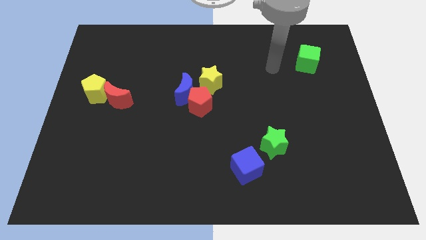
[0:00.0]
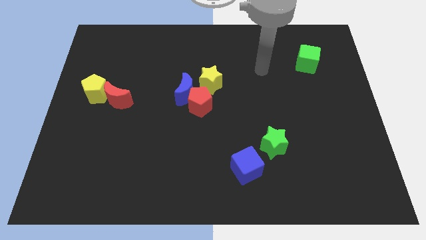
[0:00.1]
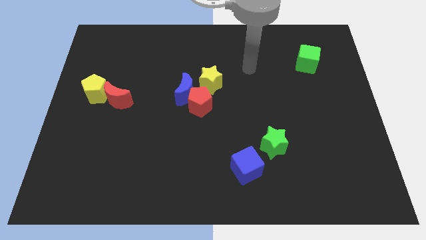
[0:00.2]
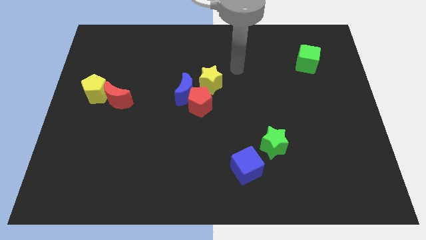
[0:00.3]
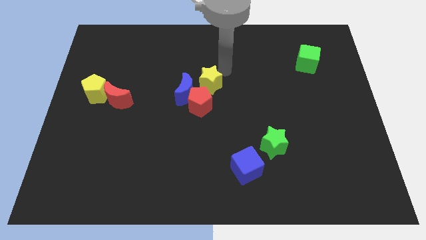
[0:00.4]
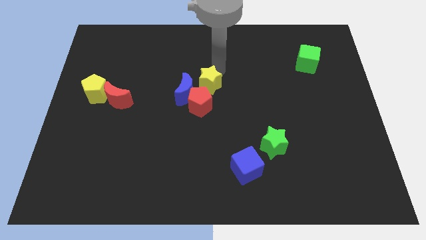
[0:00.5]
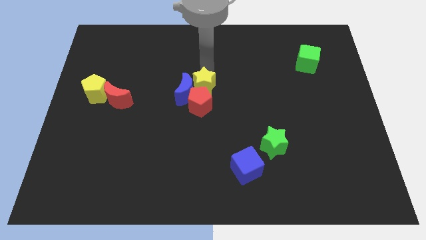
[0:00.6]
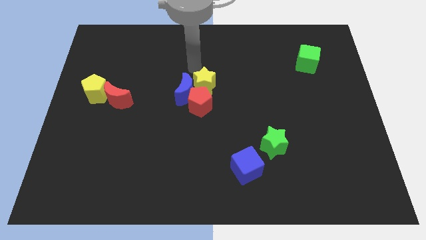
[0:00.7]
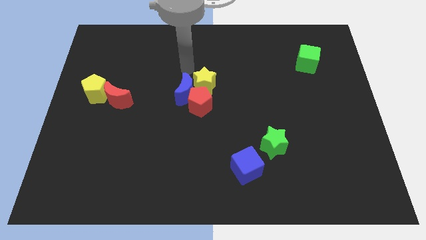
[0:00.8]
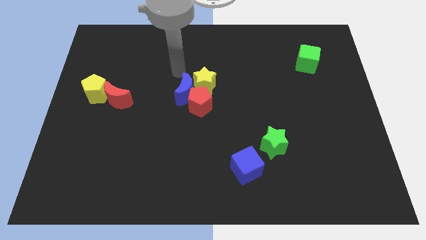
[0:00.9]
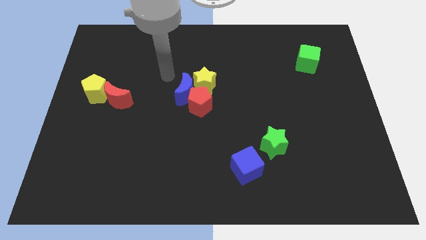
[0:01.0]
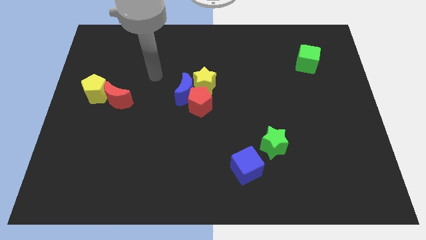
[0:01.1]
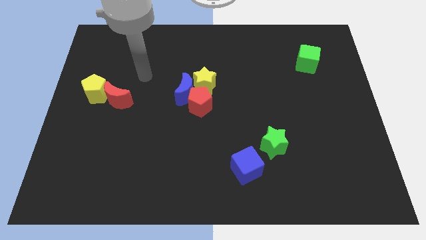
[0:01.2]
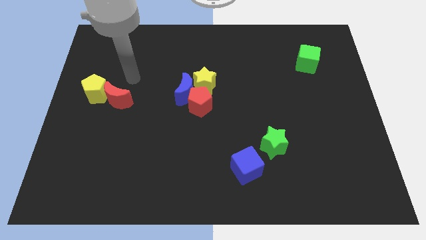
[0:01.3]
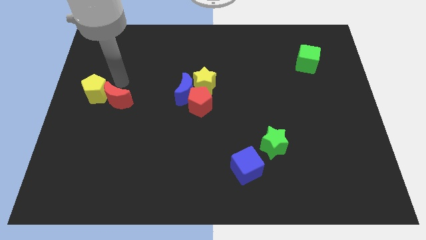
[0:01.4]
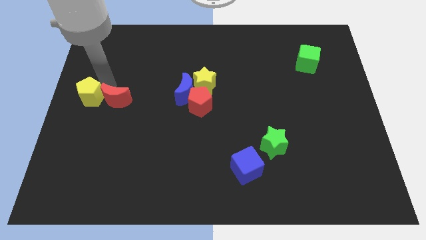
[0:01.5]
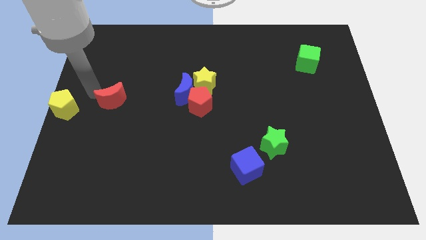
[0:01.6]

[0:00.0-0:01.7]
move the red moon away from the yellow pentagon

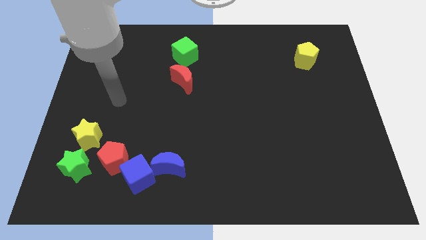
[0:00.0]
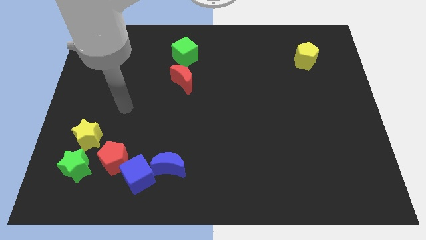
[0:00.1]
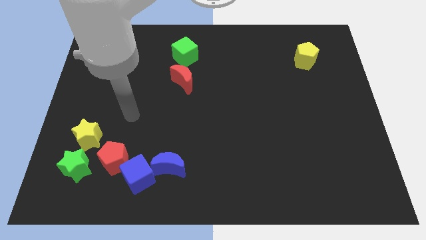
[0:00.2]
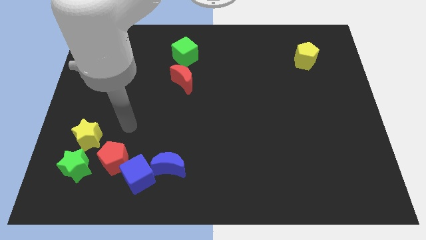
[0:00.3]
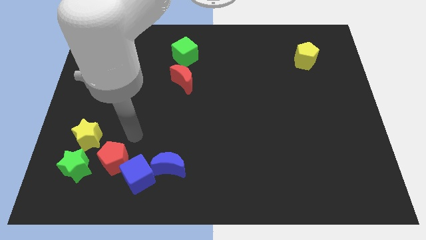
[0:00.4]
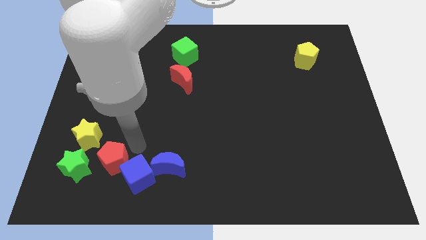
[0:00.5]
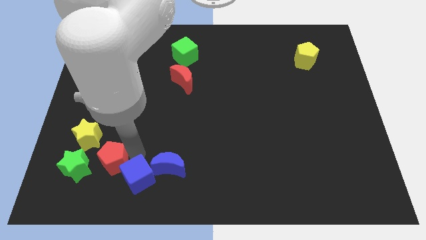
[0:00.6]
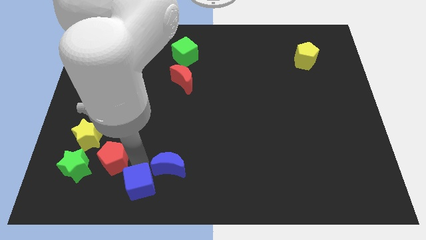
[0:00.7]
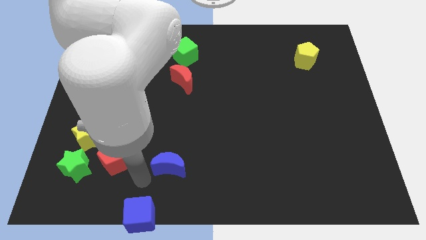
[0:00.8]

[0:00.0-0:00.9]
move the blue moon away from the blue cube

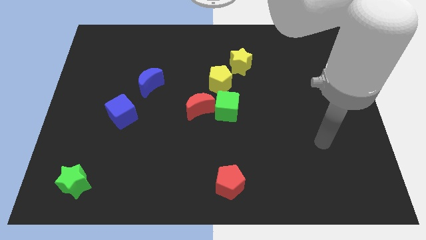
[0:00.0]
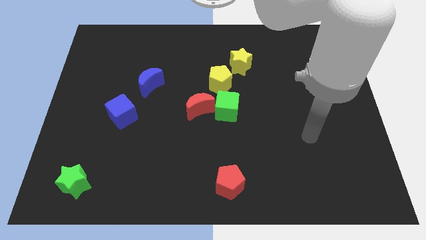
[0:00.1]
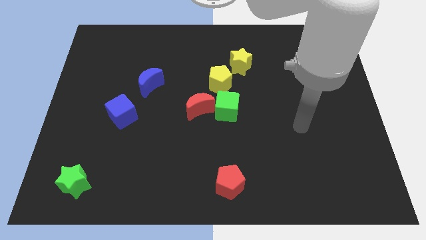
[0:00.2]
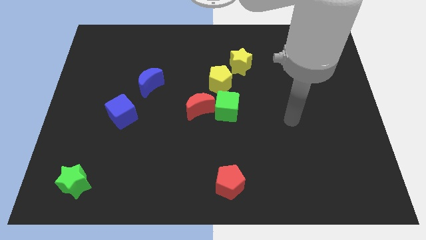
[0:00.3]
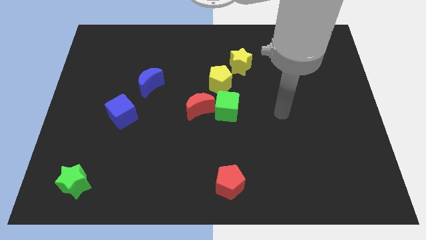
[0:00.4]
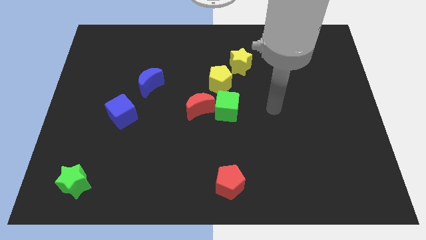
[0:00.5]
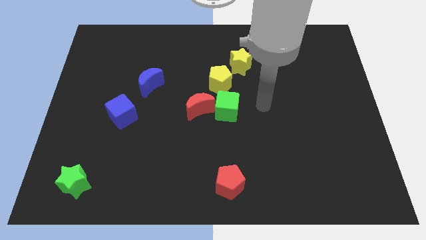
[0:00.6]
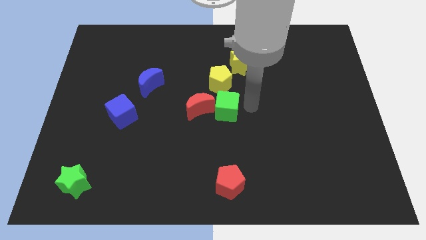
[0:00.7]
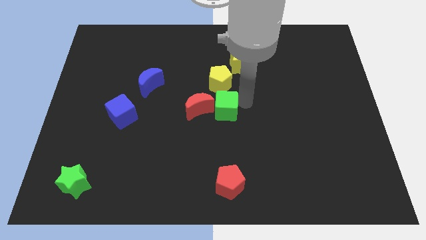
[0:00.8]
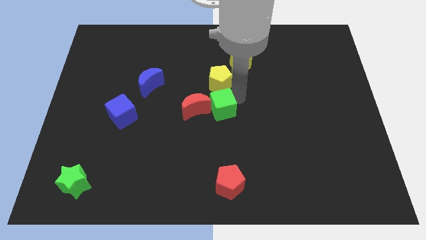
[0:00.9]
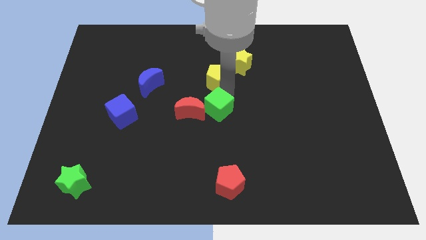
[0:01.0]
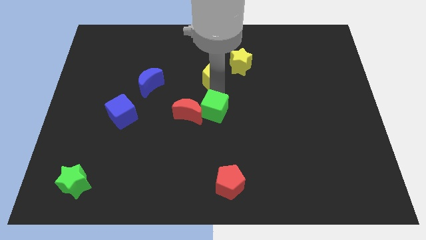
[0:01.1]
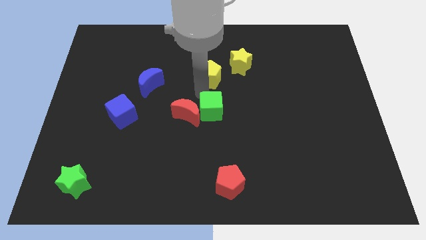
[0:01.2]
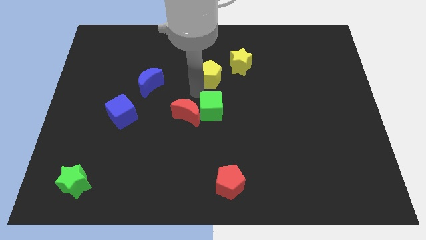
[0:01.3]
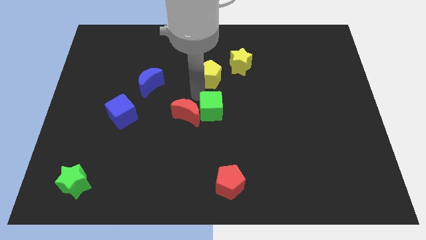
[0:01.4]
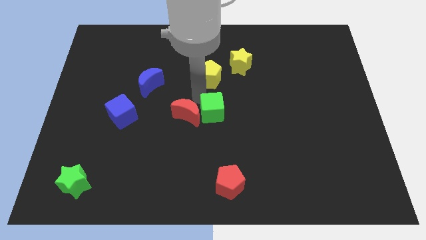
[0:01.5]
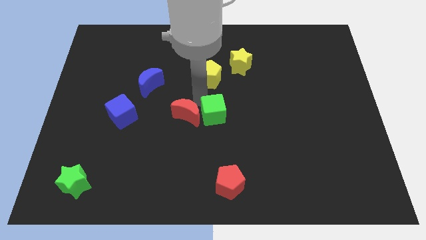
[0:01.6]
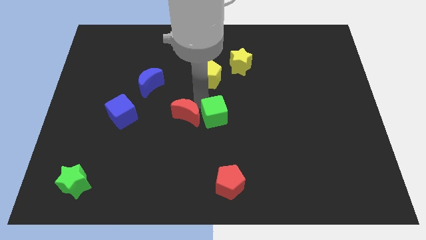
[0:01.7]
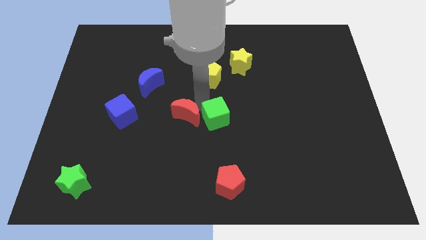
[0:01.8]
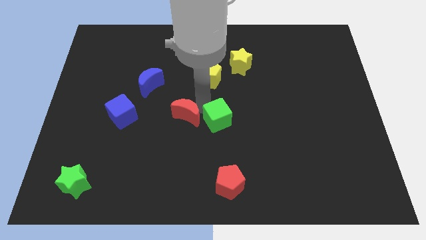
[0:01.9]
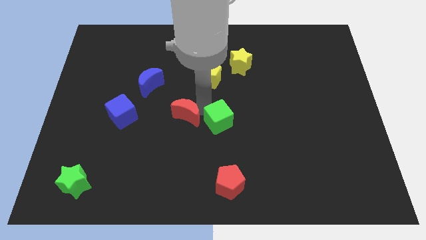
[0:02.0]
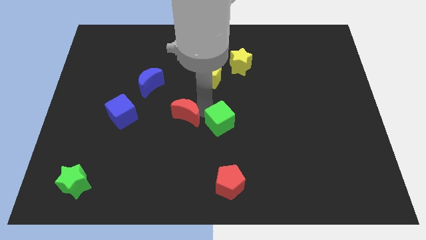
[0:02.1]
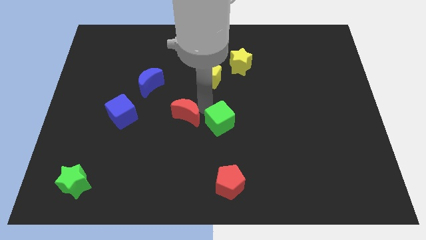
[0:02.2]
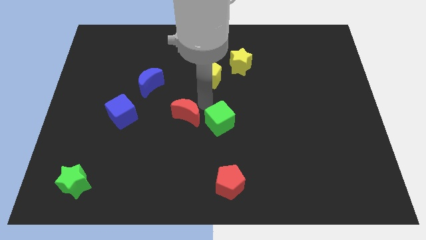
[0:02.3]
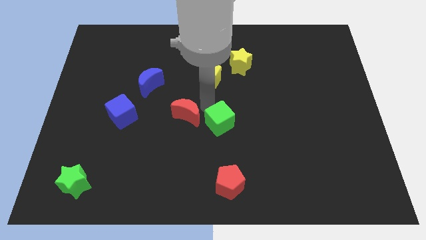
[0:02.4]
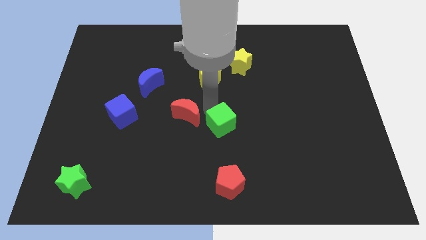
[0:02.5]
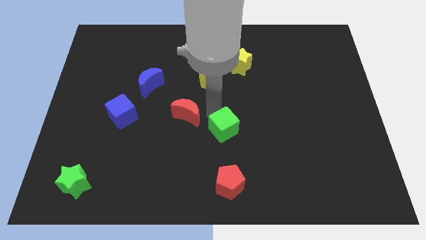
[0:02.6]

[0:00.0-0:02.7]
move the green cube away from the red moon and yellow pentagon

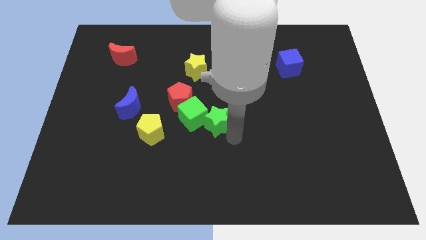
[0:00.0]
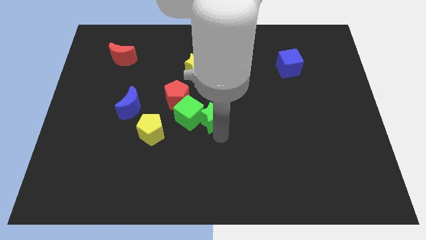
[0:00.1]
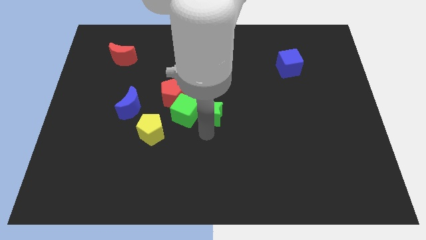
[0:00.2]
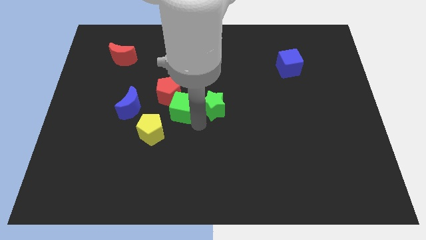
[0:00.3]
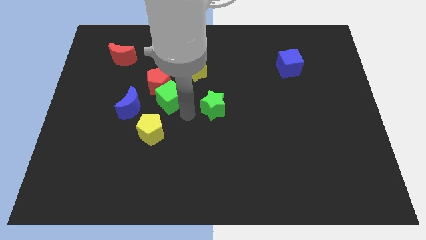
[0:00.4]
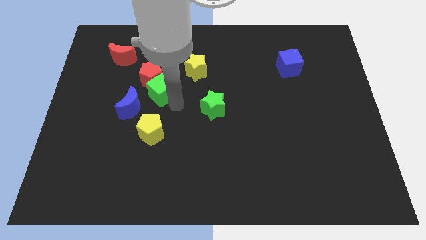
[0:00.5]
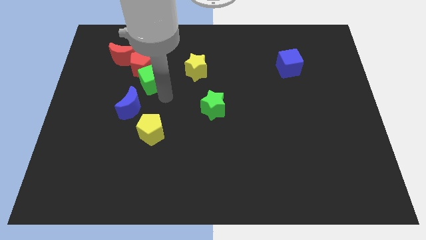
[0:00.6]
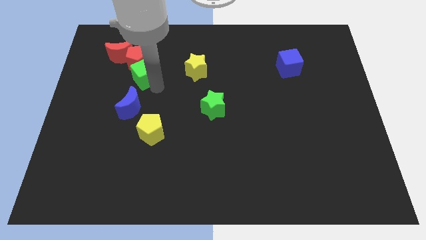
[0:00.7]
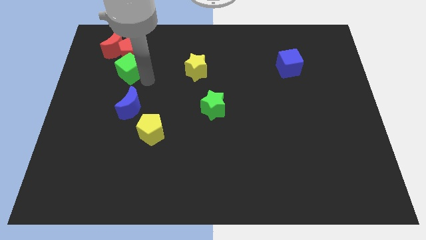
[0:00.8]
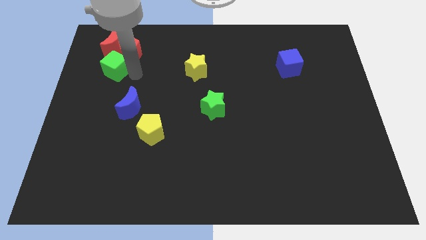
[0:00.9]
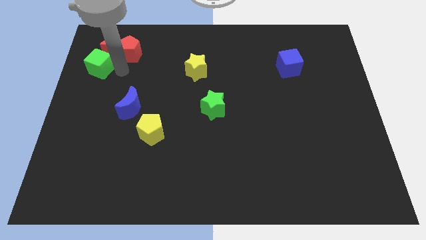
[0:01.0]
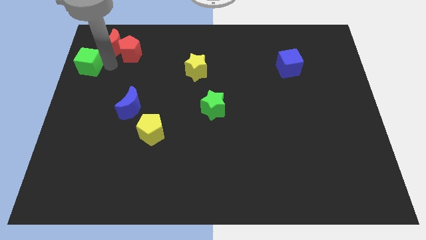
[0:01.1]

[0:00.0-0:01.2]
move the red pentagon away from the green cube

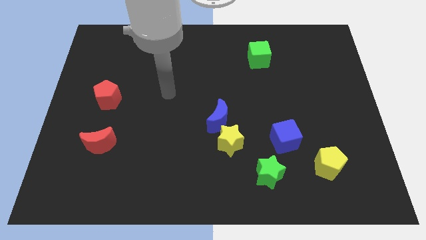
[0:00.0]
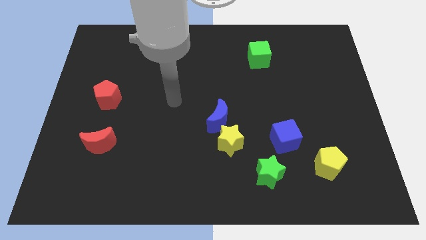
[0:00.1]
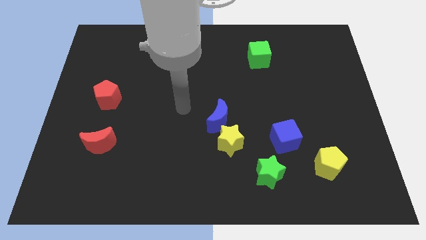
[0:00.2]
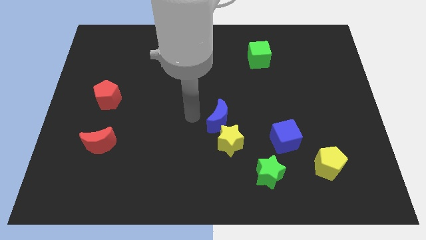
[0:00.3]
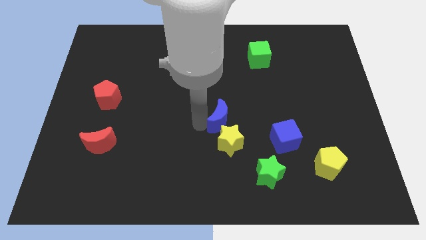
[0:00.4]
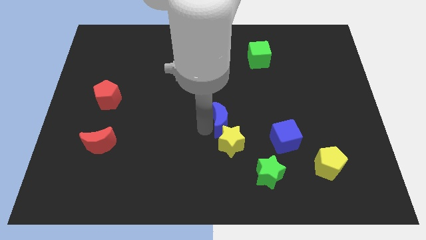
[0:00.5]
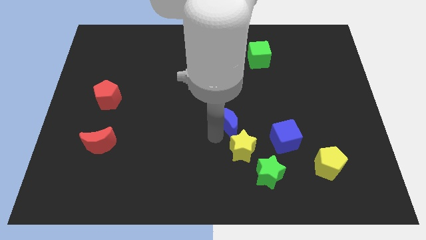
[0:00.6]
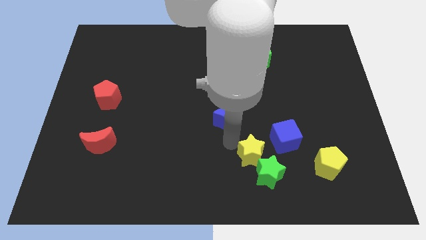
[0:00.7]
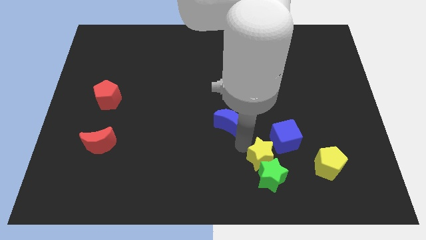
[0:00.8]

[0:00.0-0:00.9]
pull the blue moon apart from the yellow star

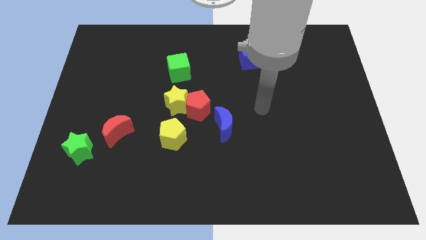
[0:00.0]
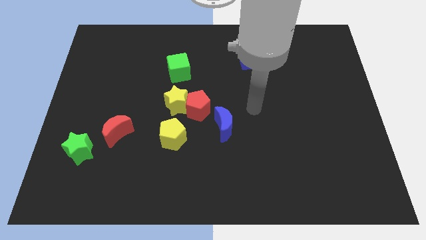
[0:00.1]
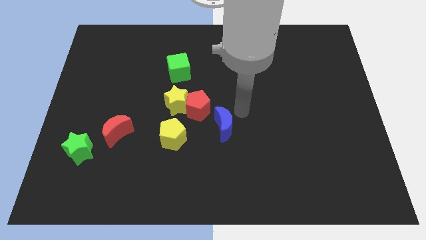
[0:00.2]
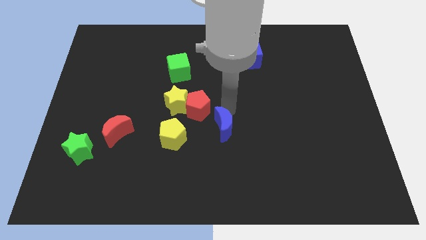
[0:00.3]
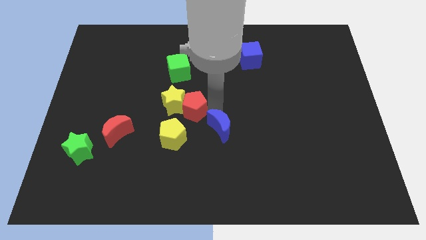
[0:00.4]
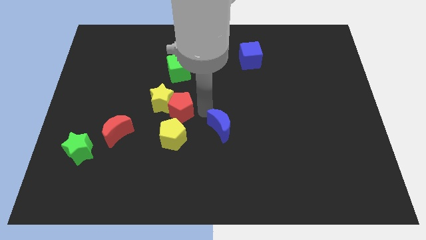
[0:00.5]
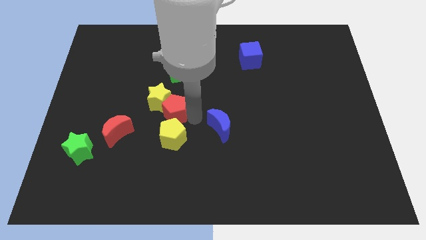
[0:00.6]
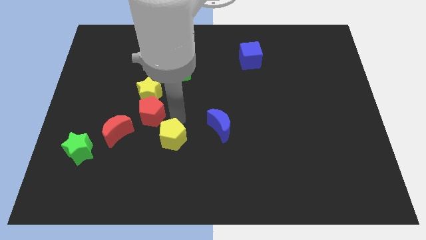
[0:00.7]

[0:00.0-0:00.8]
separate the yellow star from the red pentagon and yellow pentagon

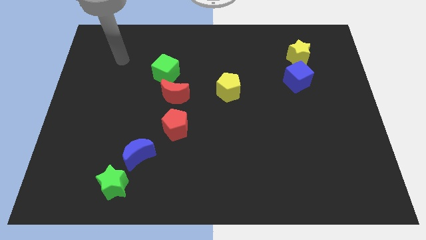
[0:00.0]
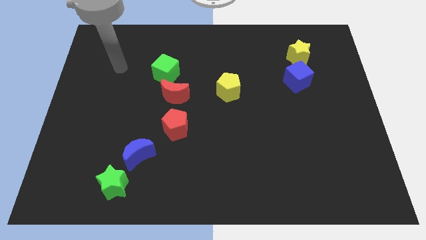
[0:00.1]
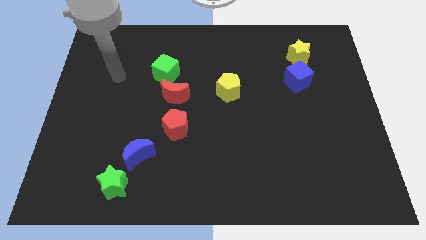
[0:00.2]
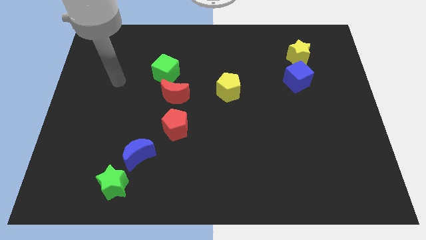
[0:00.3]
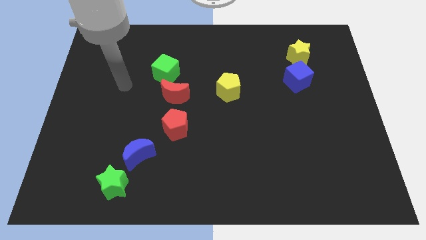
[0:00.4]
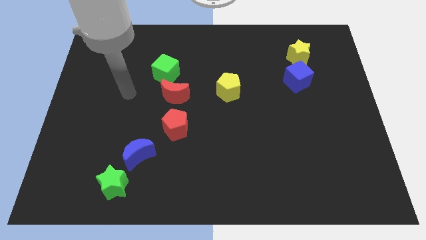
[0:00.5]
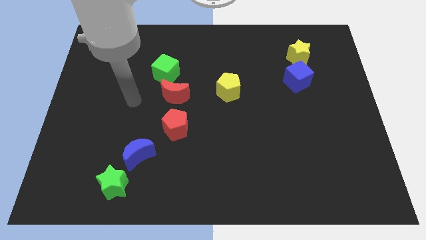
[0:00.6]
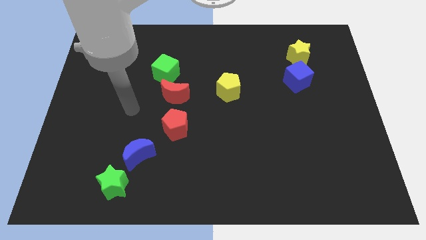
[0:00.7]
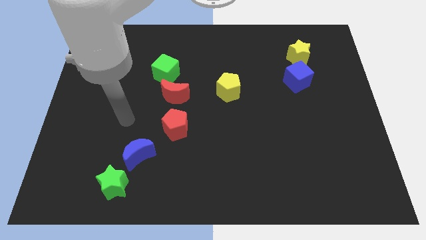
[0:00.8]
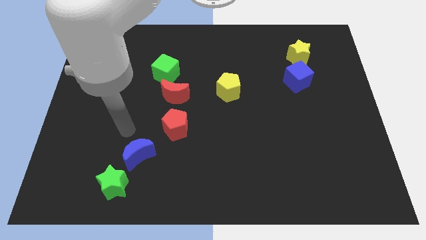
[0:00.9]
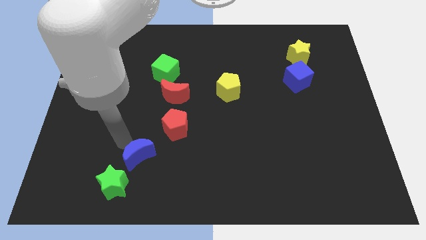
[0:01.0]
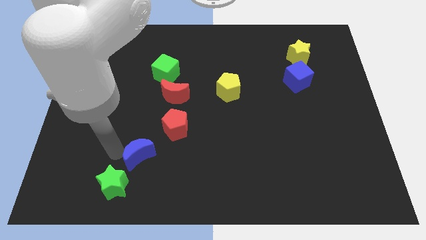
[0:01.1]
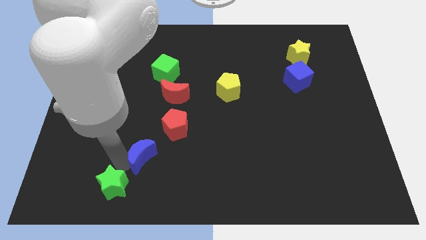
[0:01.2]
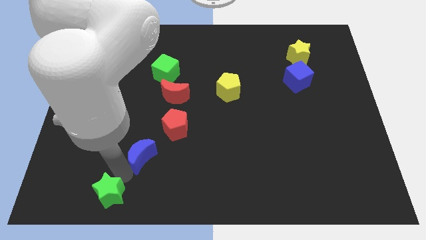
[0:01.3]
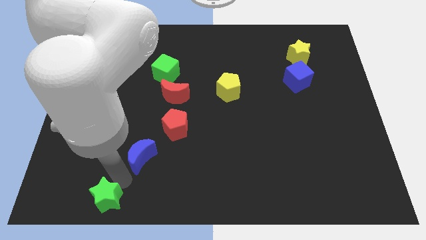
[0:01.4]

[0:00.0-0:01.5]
move the blue moon away from the green star
